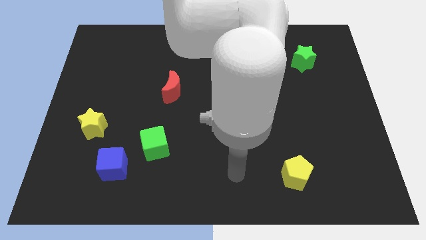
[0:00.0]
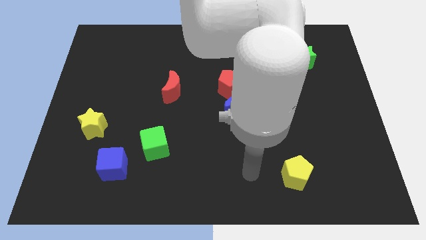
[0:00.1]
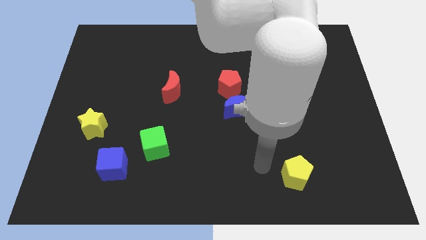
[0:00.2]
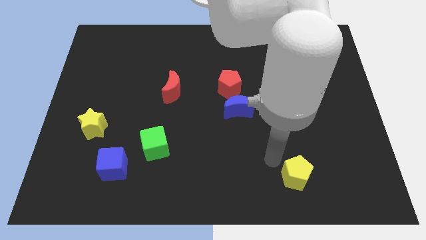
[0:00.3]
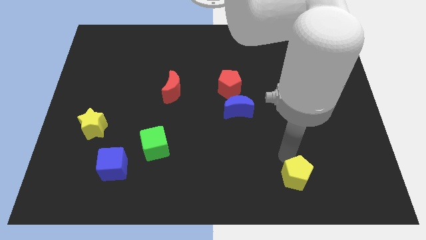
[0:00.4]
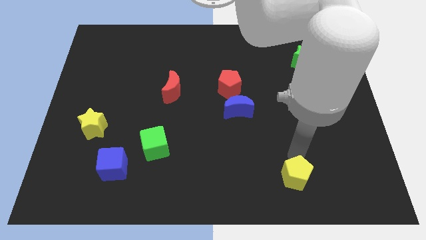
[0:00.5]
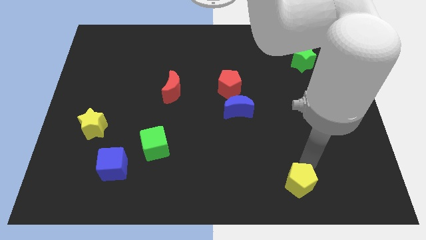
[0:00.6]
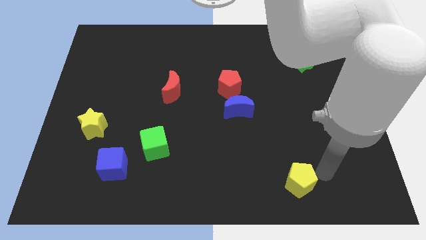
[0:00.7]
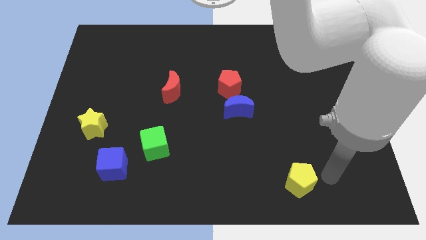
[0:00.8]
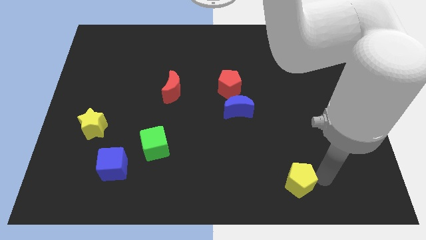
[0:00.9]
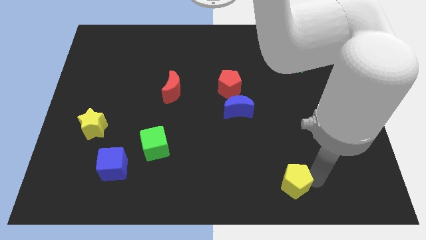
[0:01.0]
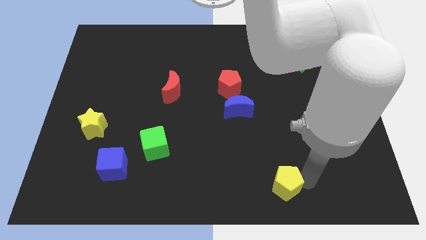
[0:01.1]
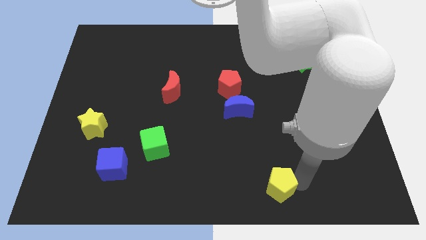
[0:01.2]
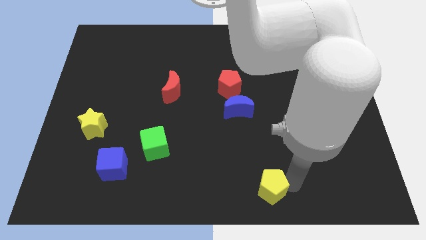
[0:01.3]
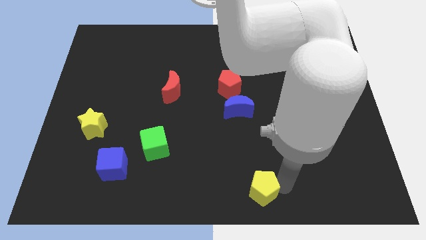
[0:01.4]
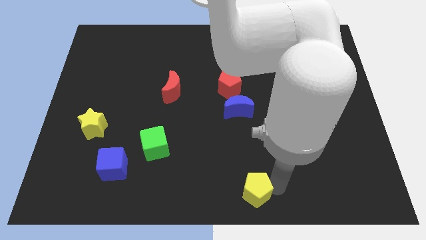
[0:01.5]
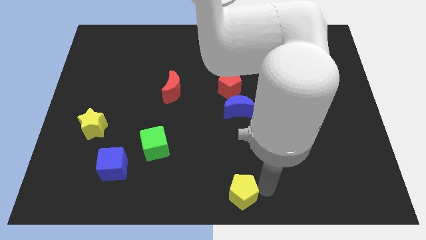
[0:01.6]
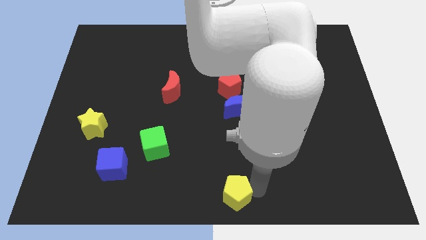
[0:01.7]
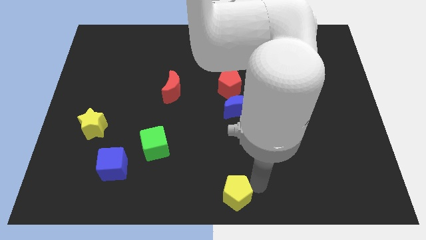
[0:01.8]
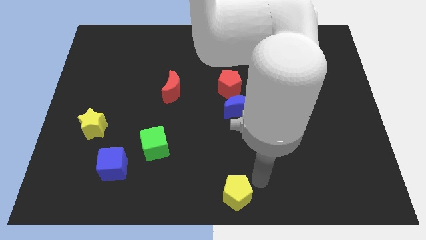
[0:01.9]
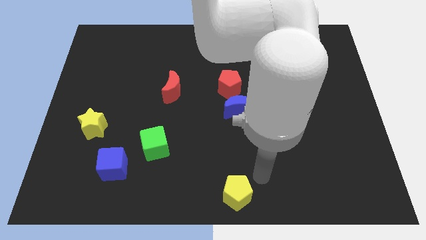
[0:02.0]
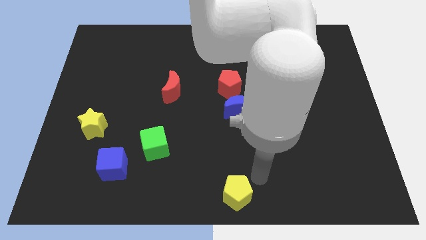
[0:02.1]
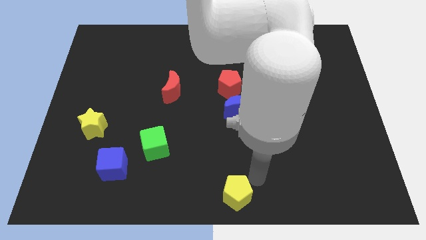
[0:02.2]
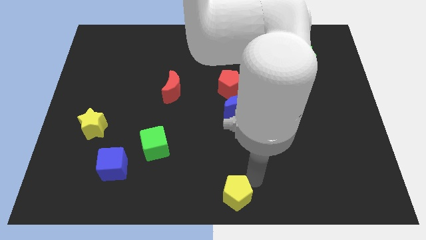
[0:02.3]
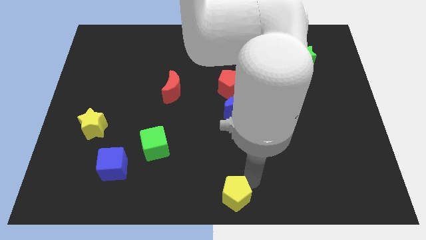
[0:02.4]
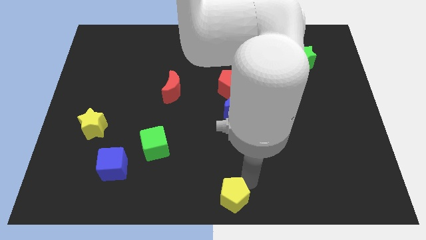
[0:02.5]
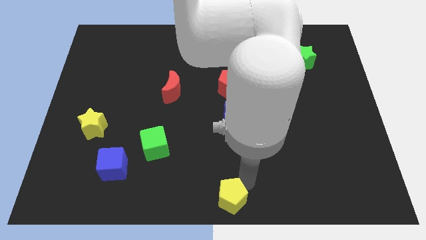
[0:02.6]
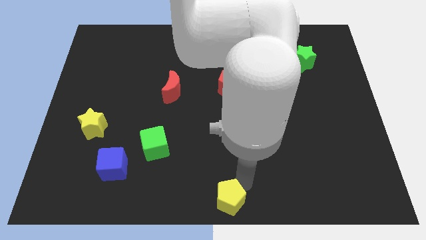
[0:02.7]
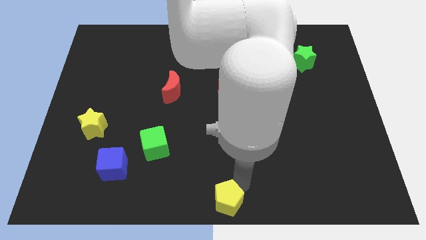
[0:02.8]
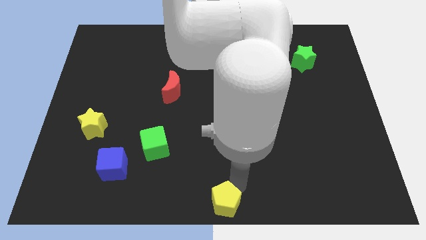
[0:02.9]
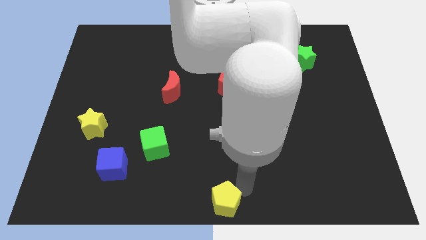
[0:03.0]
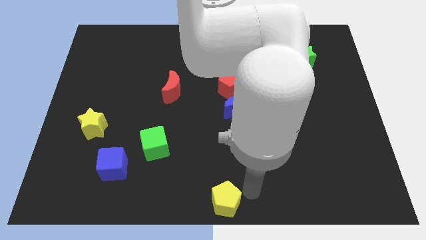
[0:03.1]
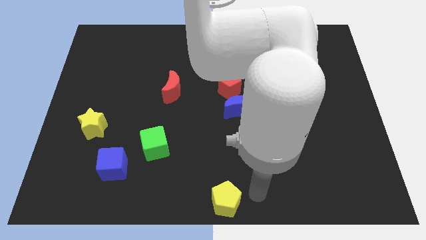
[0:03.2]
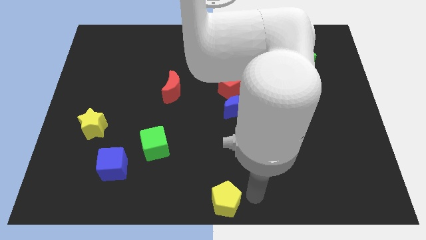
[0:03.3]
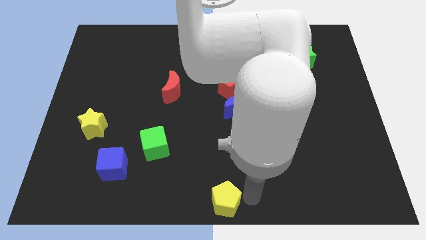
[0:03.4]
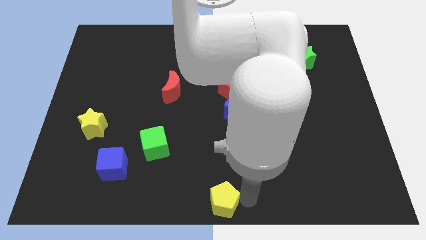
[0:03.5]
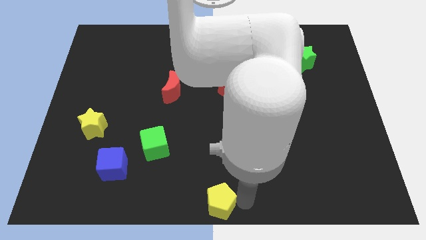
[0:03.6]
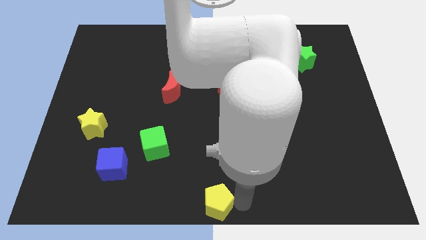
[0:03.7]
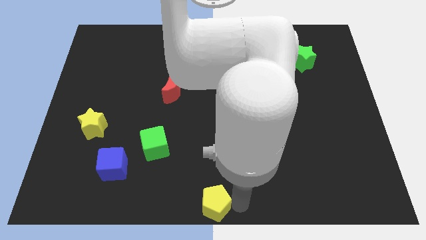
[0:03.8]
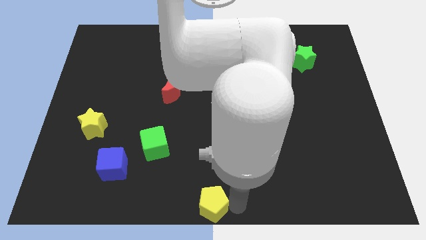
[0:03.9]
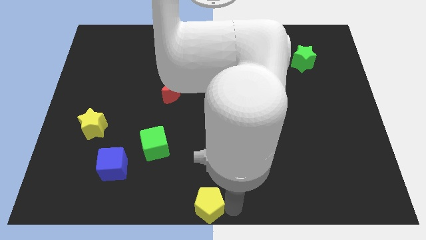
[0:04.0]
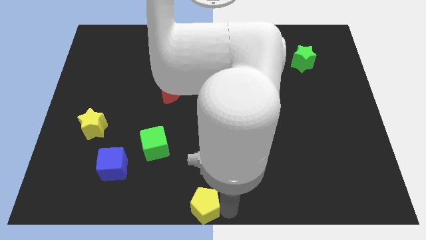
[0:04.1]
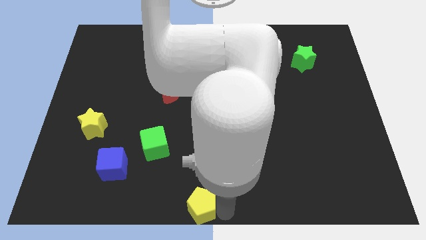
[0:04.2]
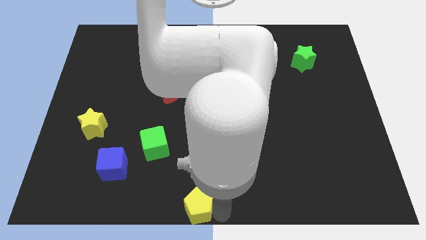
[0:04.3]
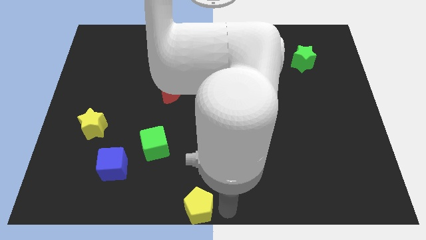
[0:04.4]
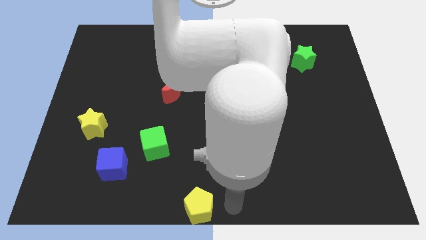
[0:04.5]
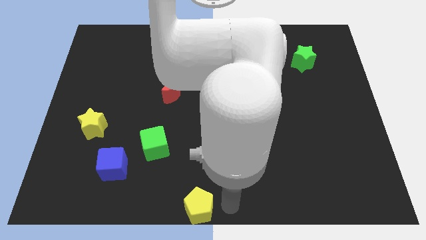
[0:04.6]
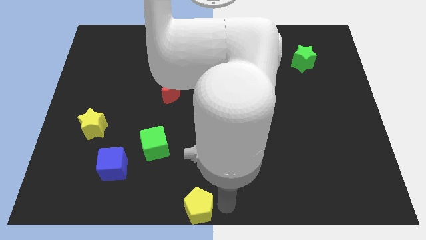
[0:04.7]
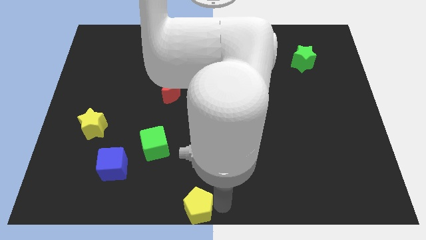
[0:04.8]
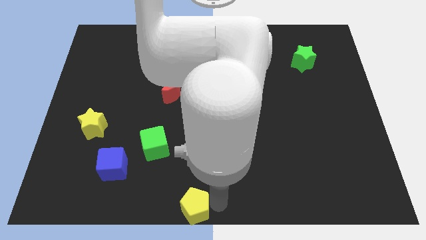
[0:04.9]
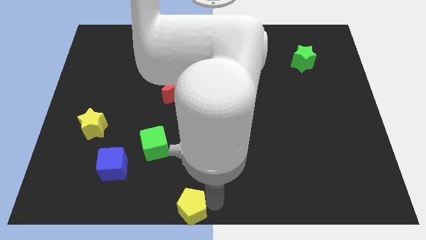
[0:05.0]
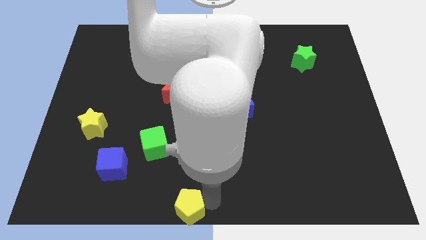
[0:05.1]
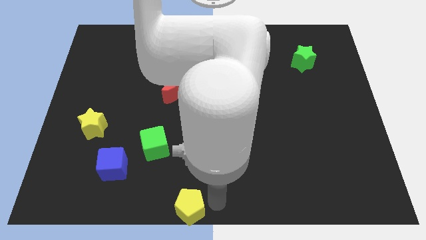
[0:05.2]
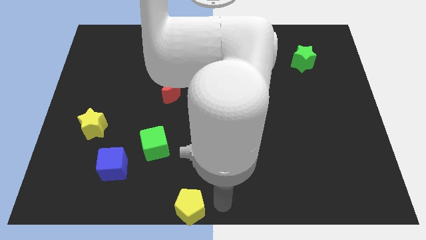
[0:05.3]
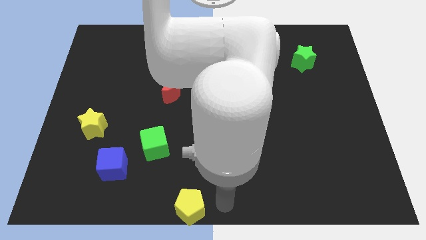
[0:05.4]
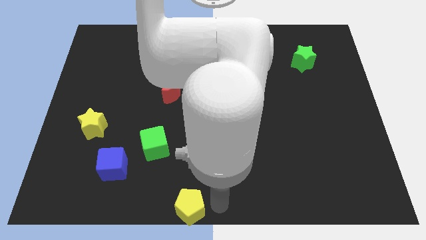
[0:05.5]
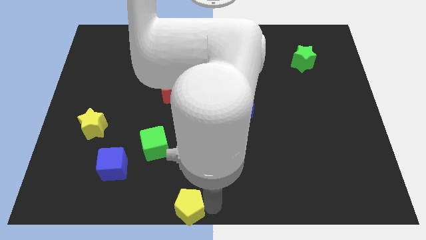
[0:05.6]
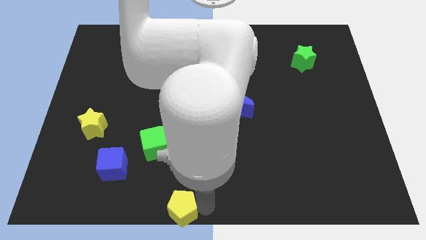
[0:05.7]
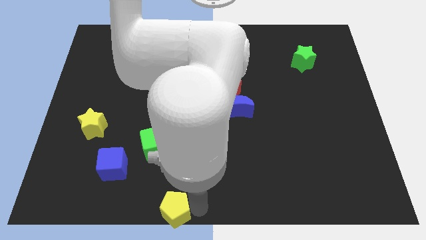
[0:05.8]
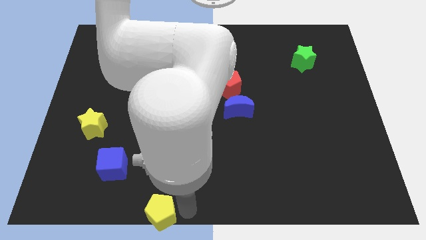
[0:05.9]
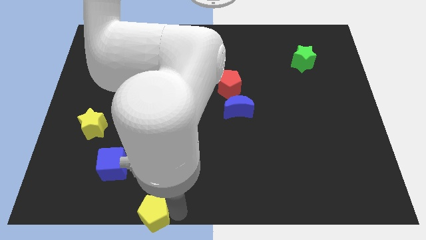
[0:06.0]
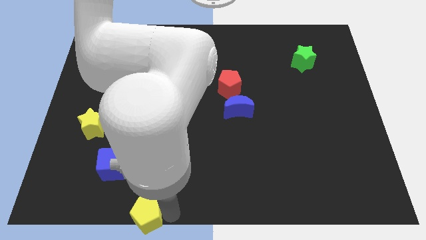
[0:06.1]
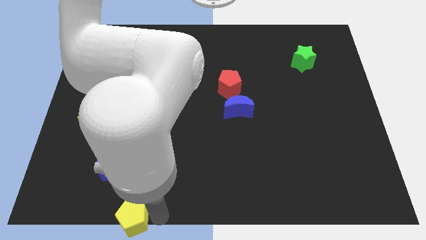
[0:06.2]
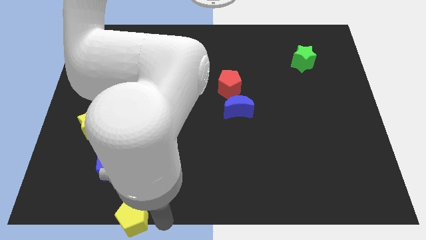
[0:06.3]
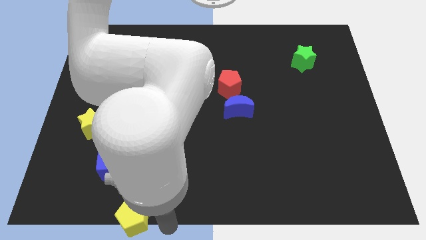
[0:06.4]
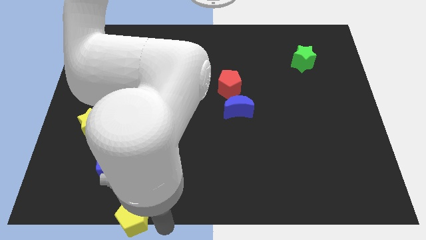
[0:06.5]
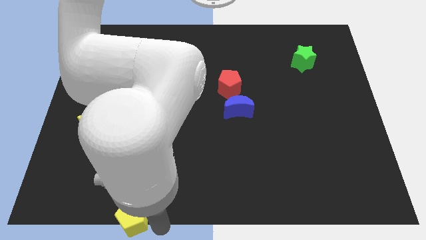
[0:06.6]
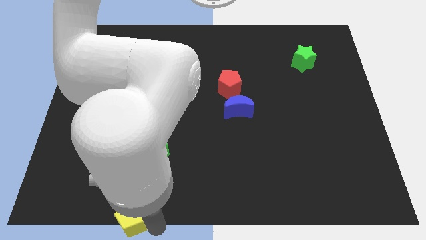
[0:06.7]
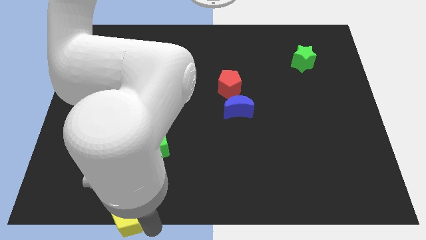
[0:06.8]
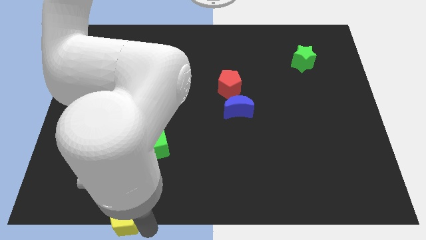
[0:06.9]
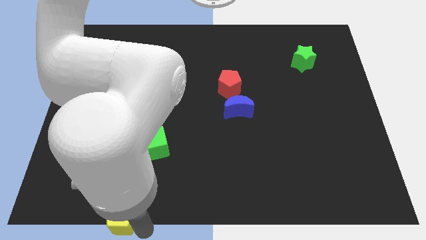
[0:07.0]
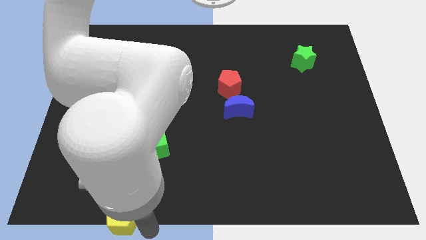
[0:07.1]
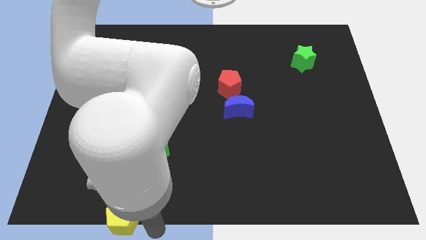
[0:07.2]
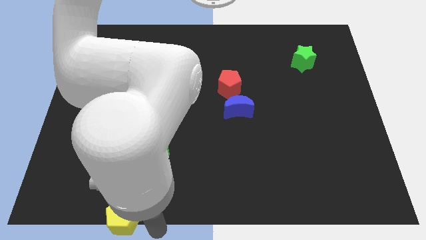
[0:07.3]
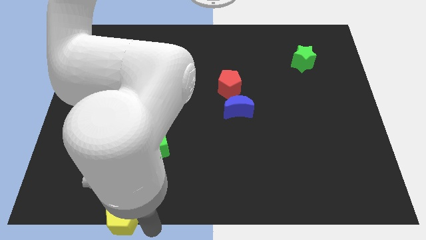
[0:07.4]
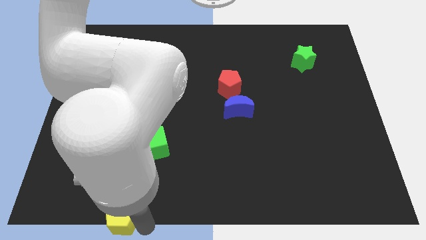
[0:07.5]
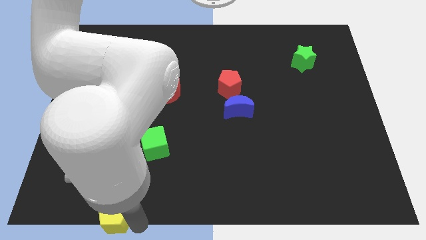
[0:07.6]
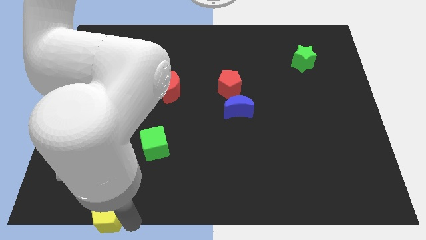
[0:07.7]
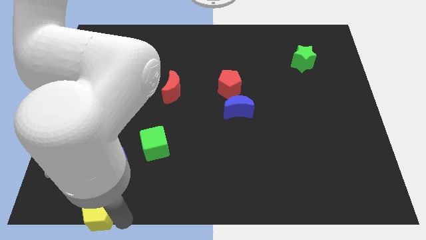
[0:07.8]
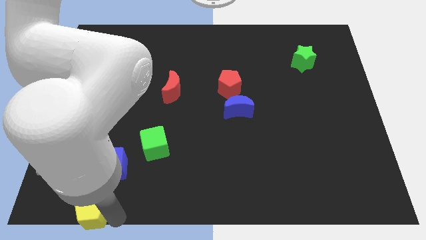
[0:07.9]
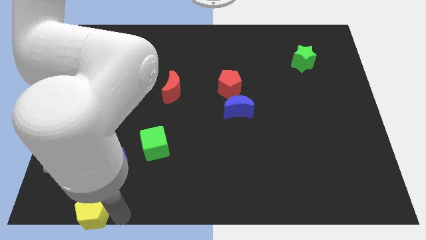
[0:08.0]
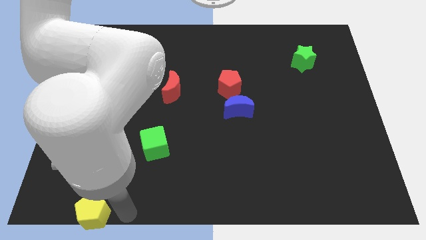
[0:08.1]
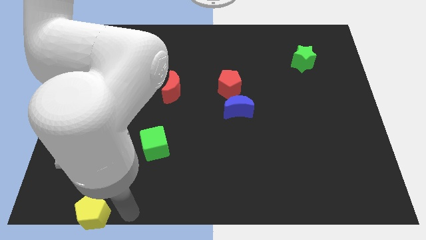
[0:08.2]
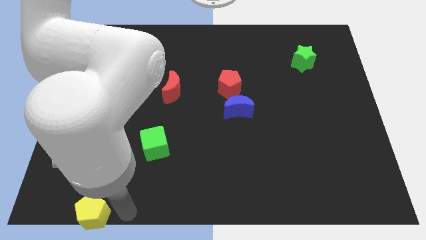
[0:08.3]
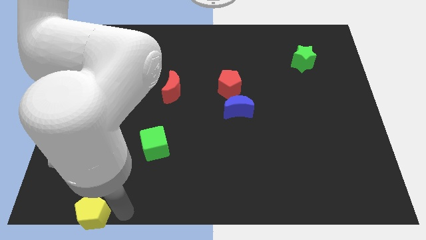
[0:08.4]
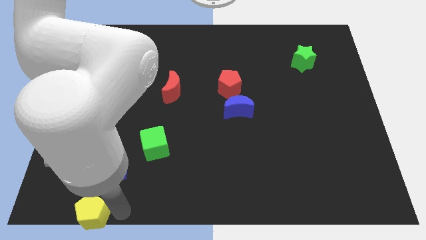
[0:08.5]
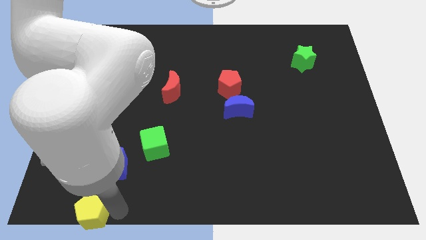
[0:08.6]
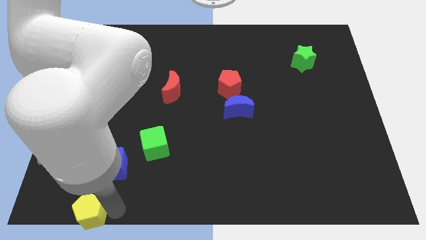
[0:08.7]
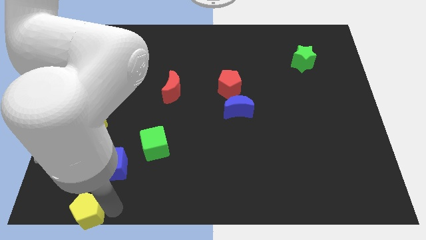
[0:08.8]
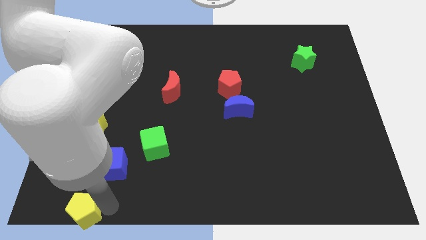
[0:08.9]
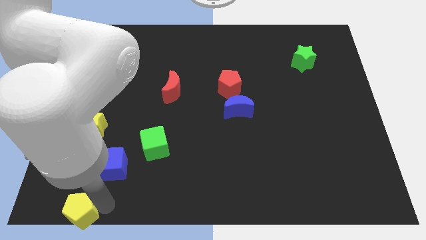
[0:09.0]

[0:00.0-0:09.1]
move the yellow pentagon to the bottom left of the board
